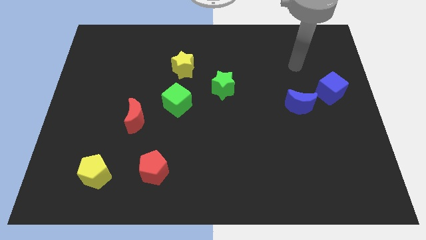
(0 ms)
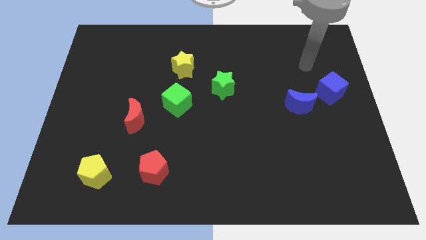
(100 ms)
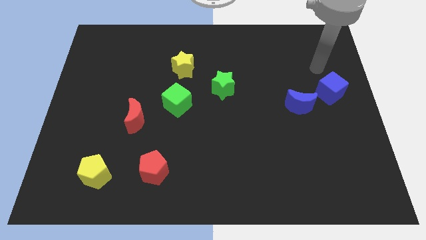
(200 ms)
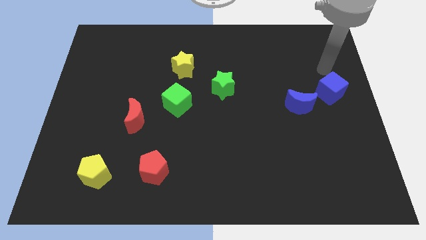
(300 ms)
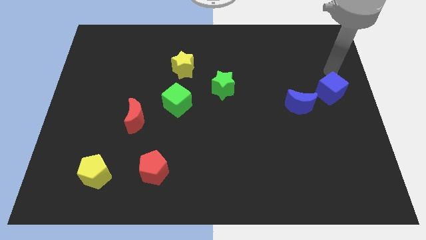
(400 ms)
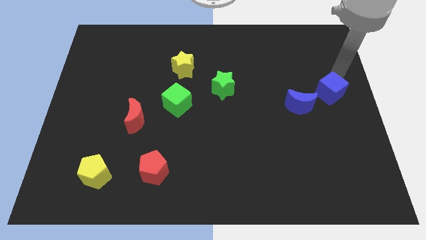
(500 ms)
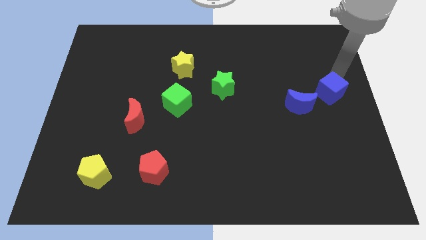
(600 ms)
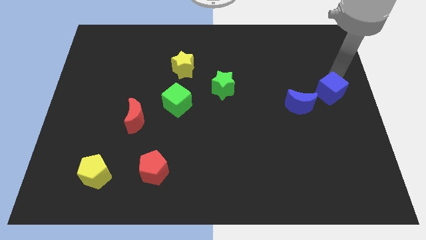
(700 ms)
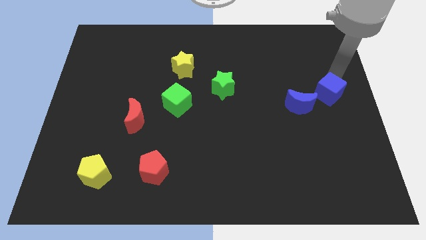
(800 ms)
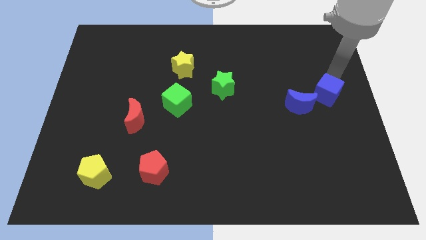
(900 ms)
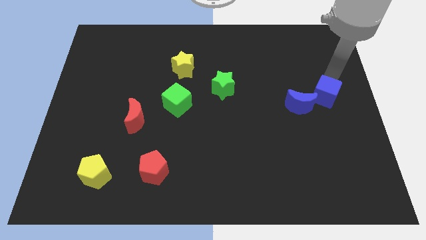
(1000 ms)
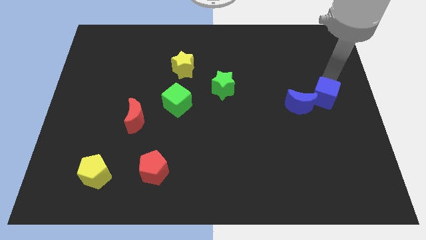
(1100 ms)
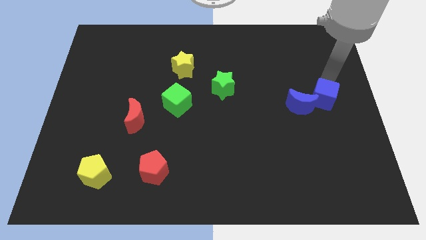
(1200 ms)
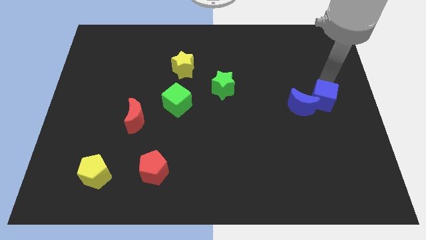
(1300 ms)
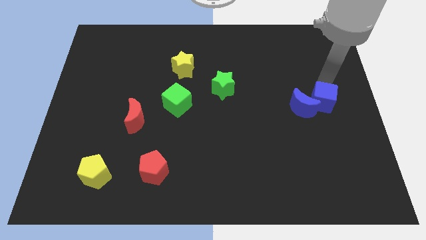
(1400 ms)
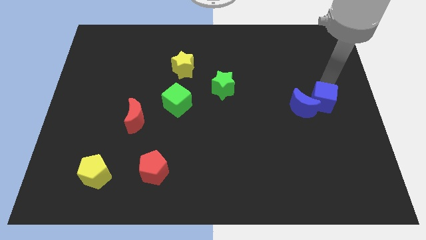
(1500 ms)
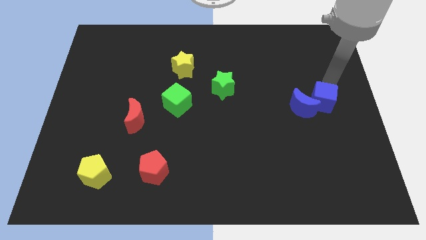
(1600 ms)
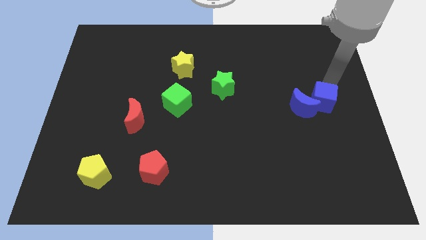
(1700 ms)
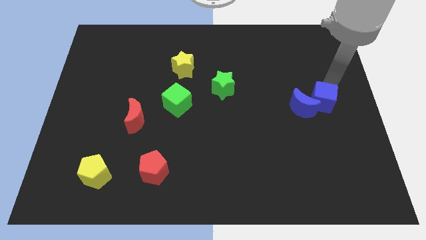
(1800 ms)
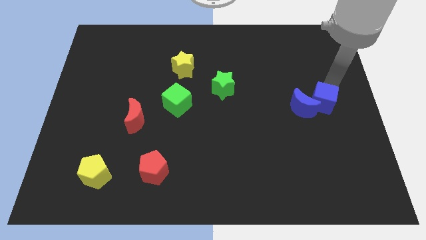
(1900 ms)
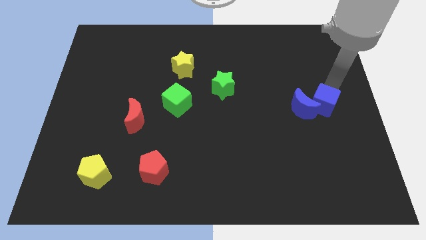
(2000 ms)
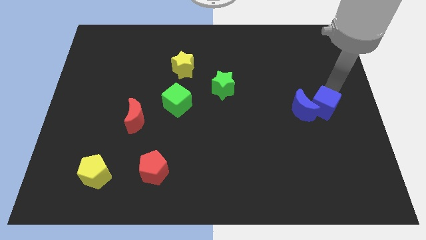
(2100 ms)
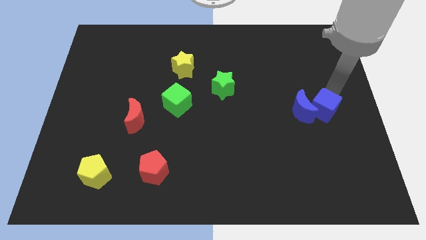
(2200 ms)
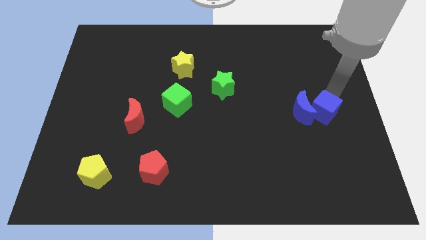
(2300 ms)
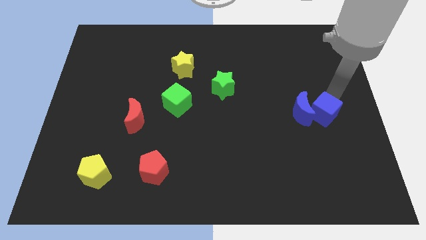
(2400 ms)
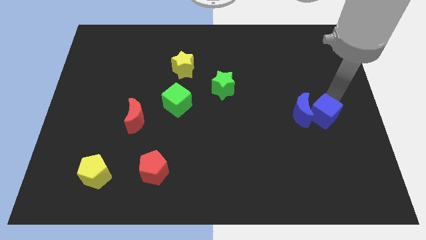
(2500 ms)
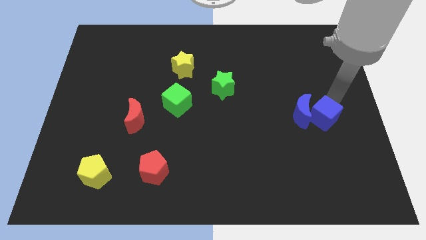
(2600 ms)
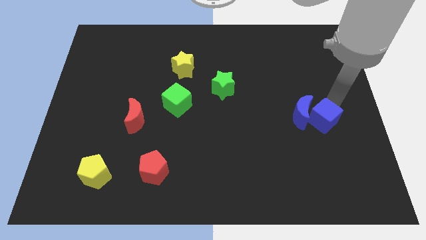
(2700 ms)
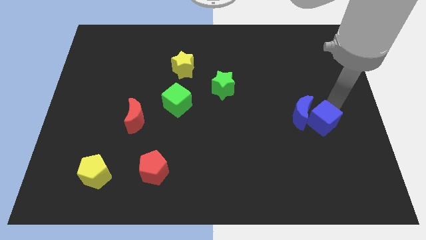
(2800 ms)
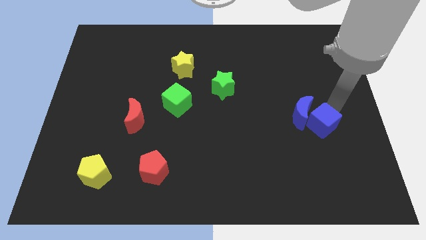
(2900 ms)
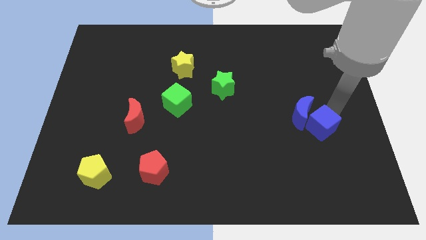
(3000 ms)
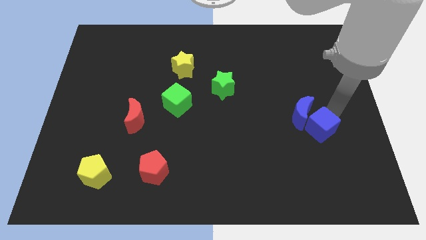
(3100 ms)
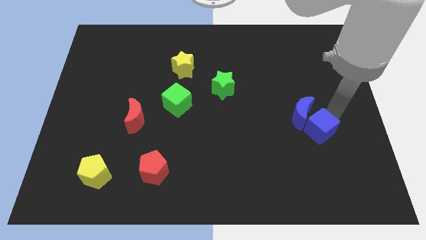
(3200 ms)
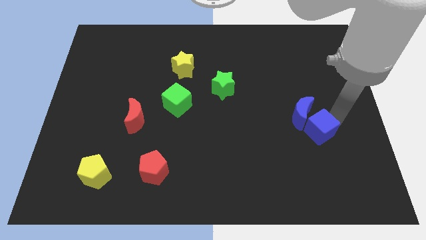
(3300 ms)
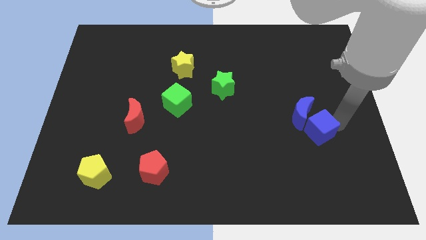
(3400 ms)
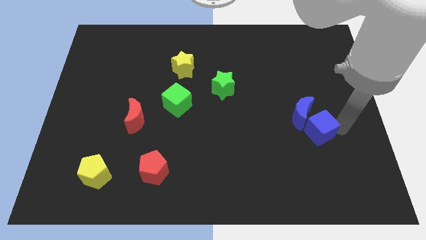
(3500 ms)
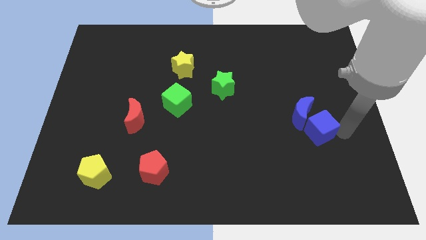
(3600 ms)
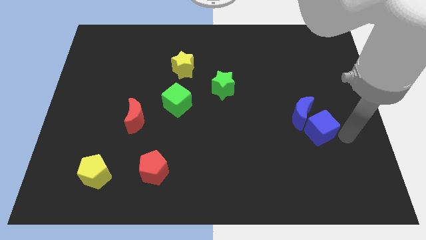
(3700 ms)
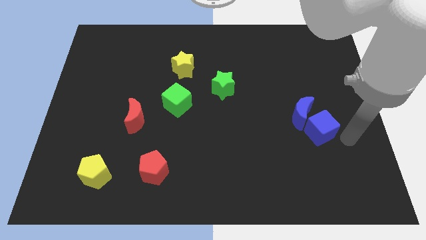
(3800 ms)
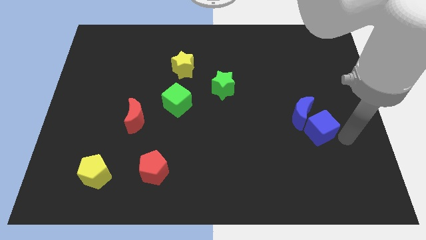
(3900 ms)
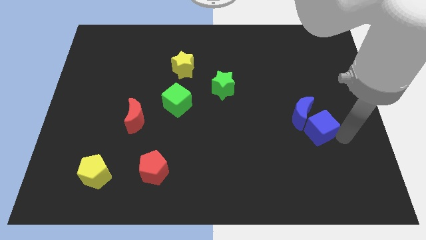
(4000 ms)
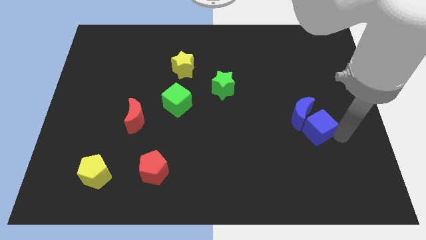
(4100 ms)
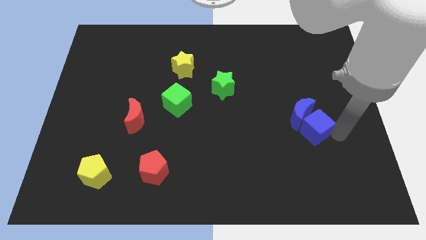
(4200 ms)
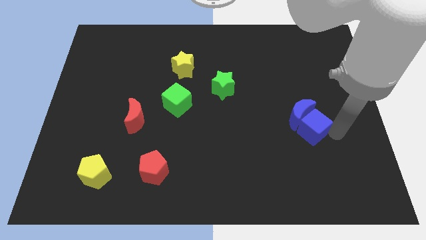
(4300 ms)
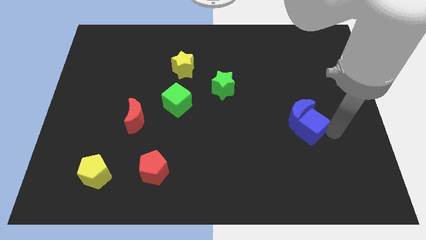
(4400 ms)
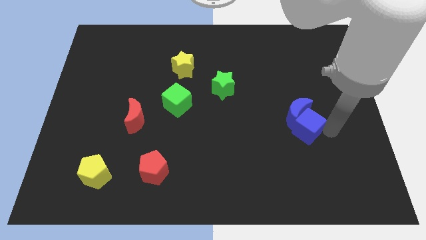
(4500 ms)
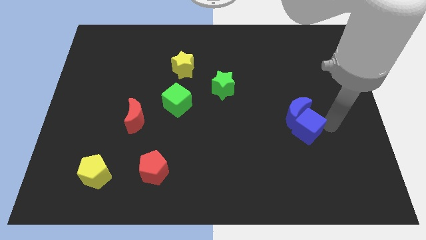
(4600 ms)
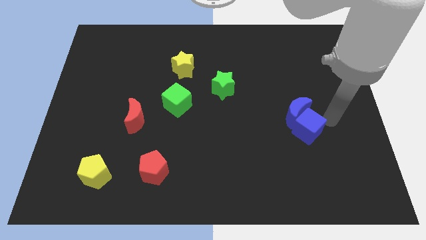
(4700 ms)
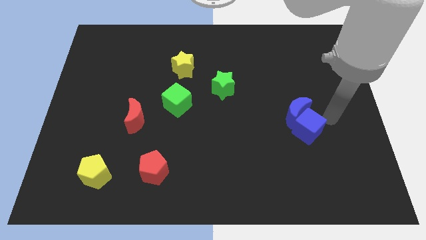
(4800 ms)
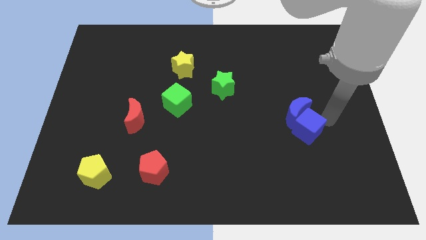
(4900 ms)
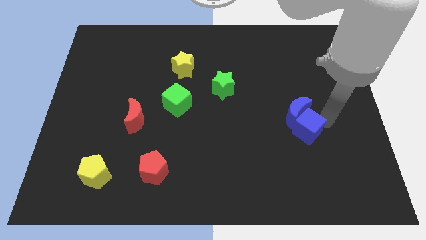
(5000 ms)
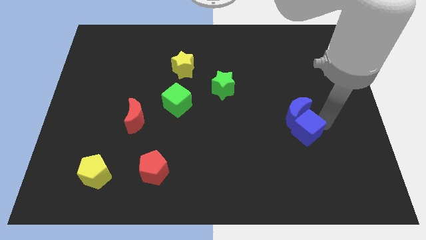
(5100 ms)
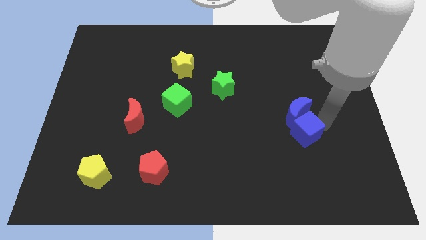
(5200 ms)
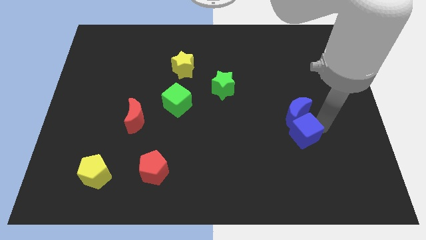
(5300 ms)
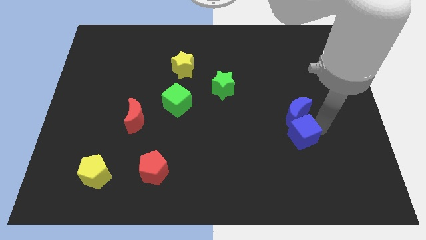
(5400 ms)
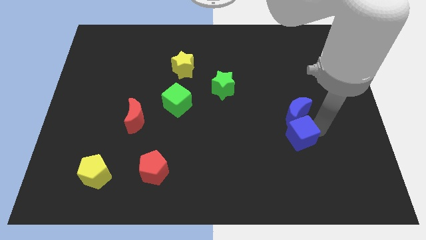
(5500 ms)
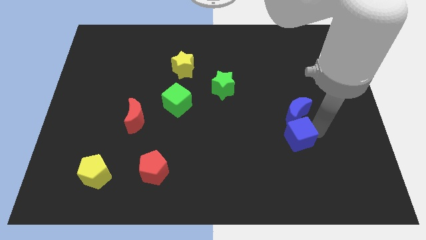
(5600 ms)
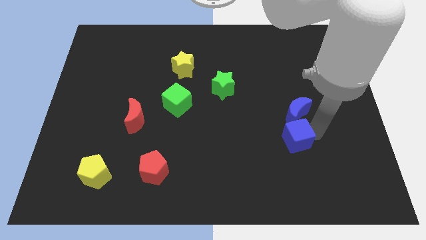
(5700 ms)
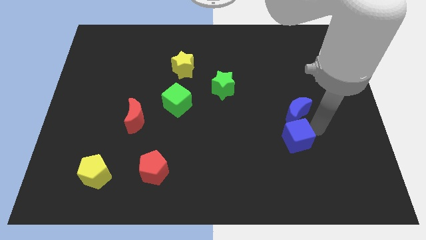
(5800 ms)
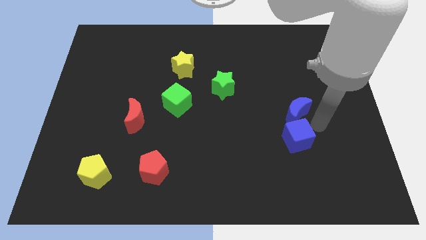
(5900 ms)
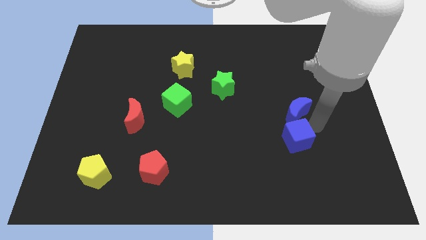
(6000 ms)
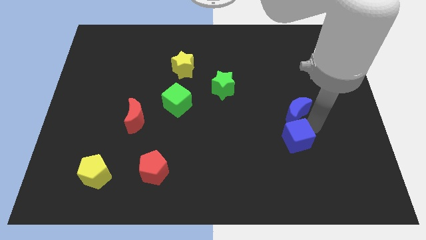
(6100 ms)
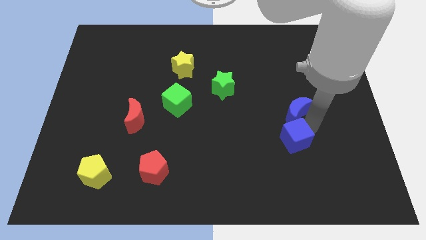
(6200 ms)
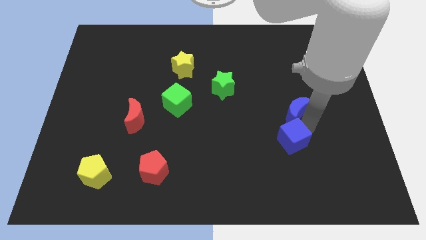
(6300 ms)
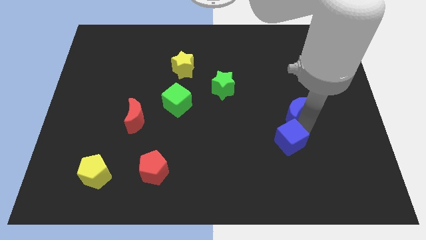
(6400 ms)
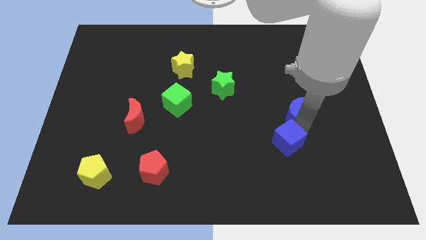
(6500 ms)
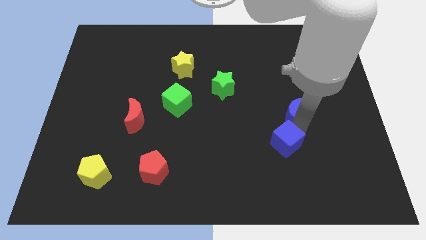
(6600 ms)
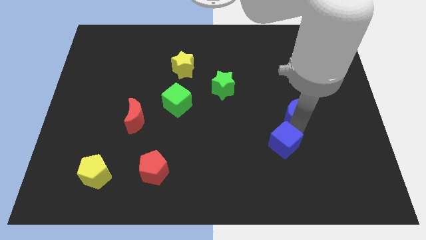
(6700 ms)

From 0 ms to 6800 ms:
move the blue cube diagonally down and left

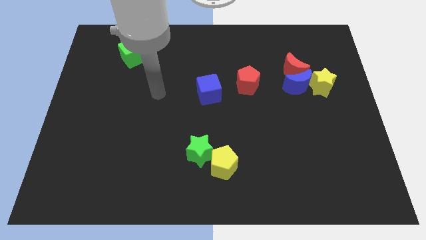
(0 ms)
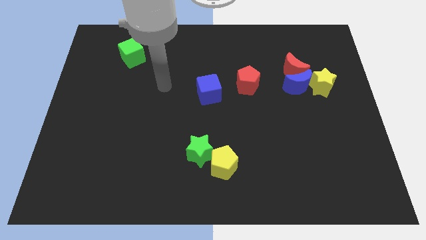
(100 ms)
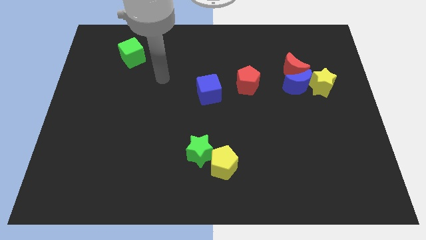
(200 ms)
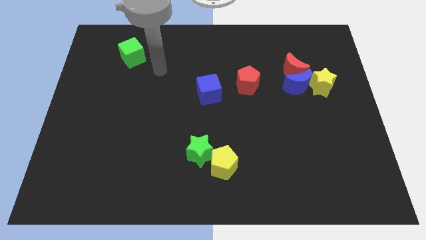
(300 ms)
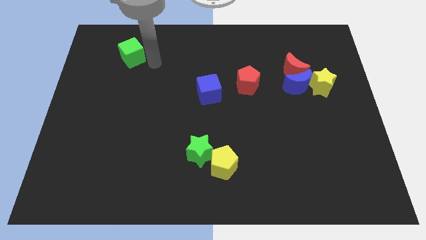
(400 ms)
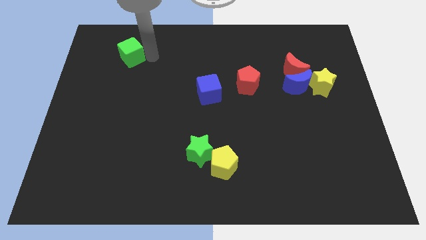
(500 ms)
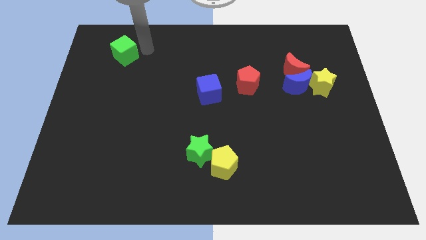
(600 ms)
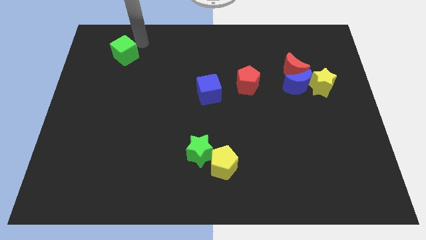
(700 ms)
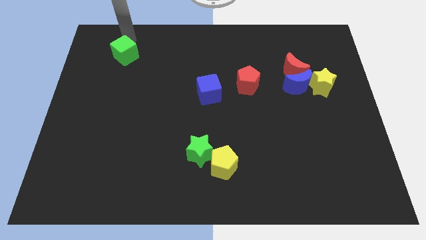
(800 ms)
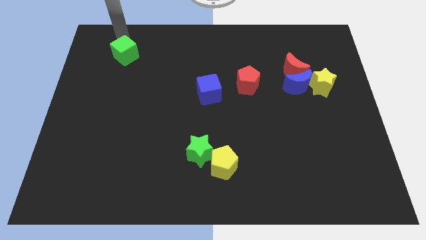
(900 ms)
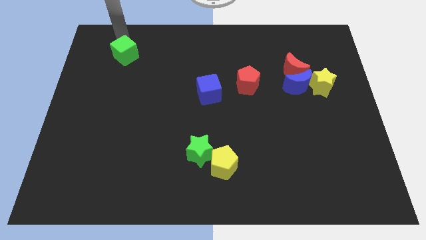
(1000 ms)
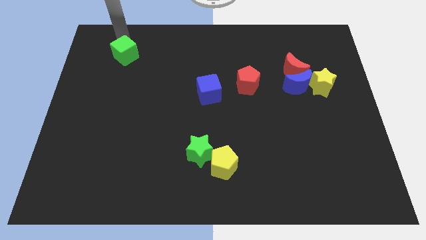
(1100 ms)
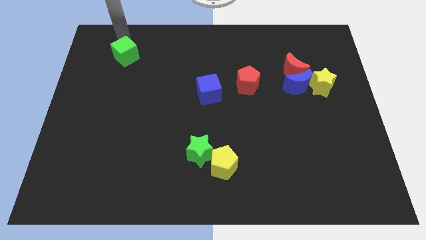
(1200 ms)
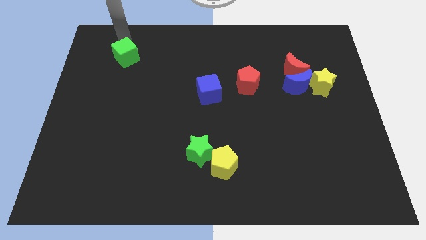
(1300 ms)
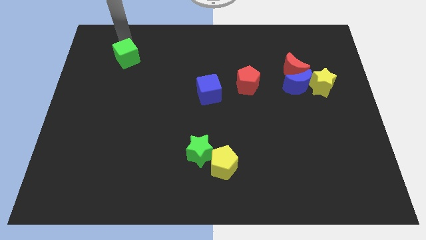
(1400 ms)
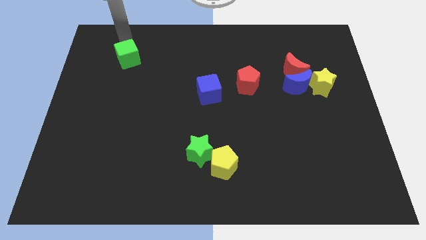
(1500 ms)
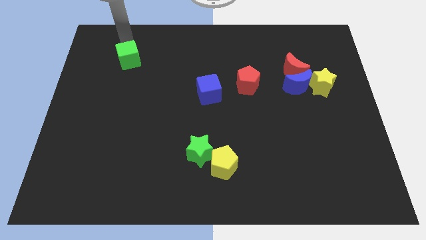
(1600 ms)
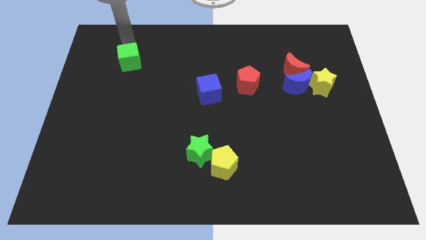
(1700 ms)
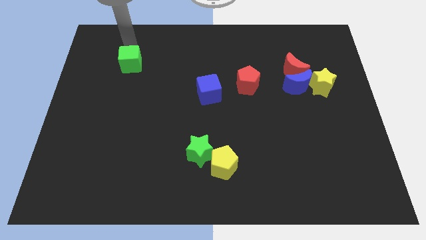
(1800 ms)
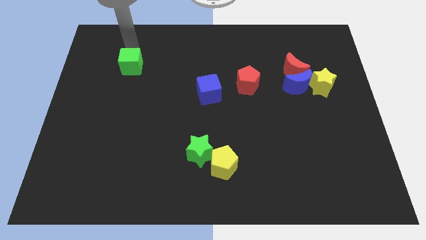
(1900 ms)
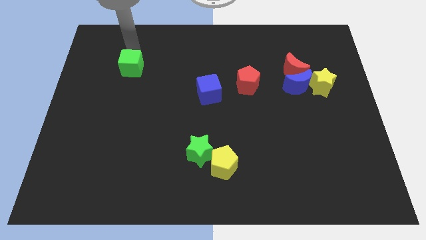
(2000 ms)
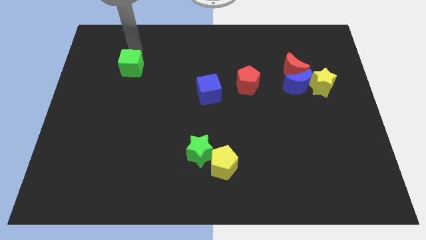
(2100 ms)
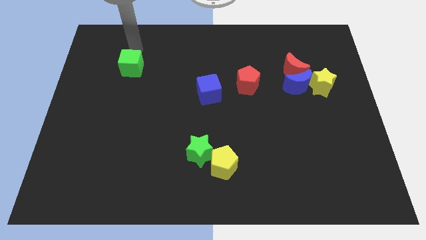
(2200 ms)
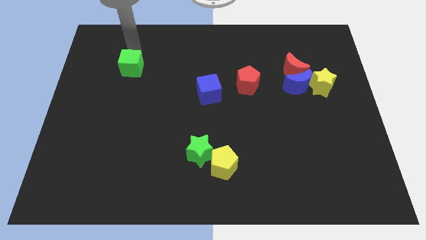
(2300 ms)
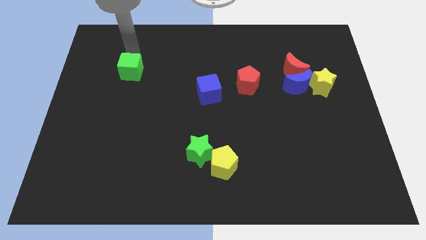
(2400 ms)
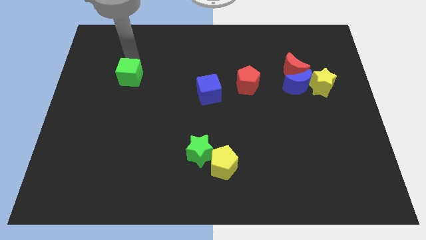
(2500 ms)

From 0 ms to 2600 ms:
slightly slide the green cube downwards
